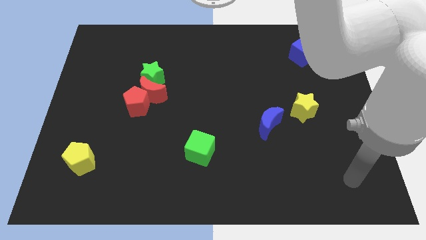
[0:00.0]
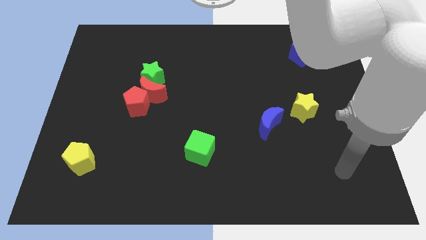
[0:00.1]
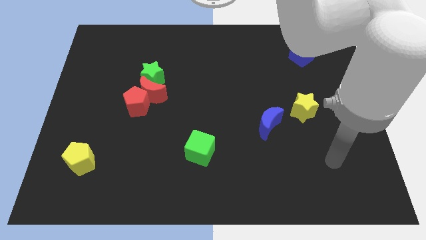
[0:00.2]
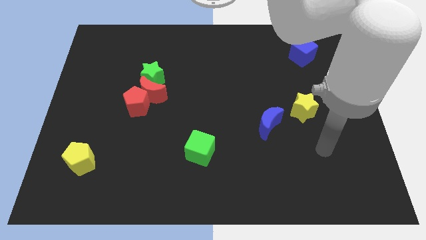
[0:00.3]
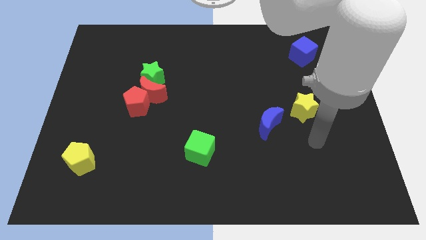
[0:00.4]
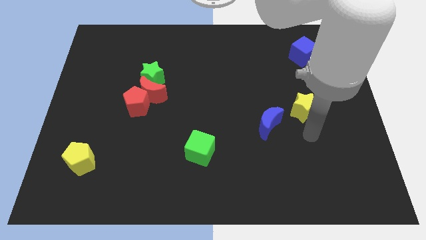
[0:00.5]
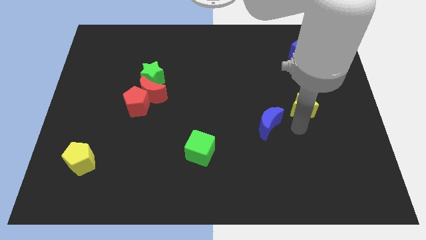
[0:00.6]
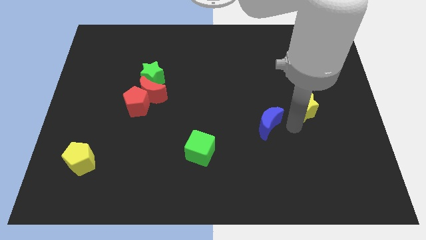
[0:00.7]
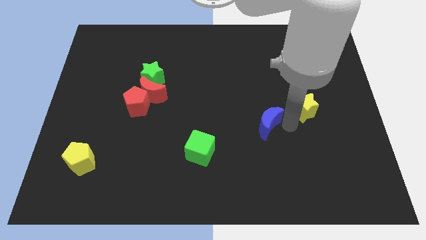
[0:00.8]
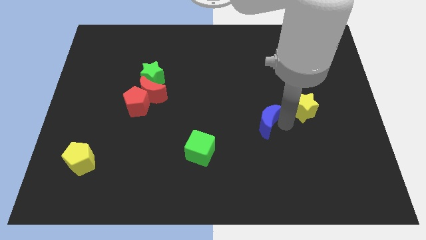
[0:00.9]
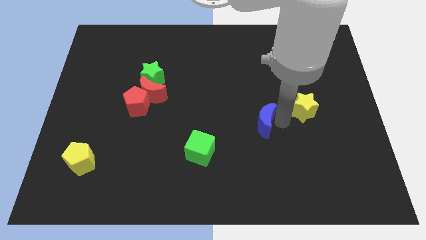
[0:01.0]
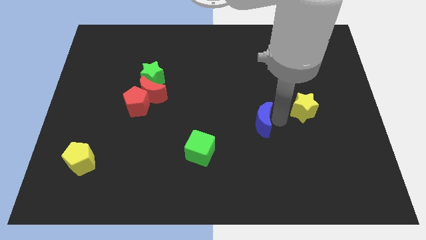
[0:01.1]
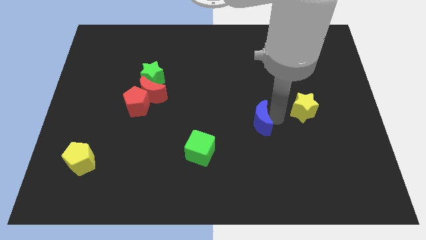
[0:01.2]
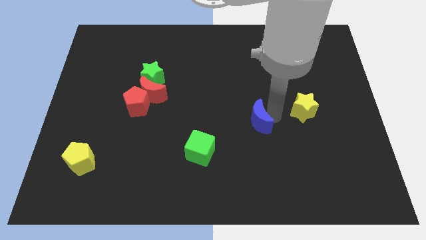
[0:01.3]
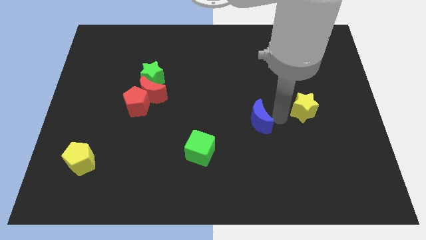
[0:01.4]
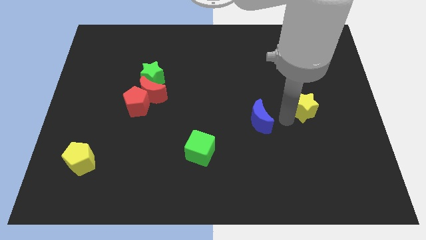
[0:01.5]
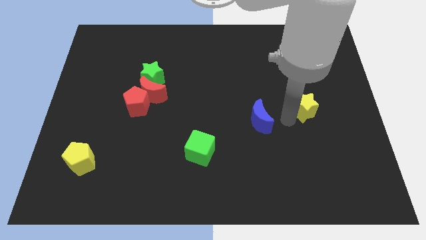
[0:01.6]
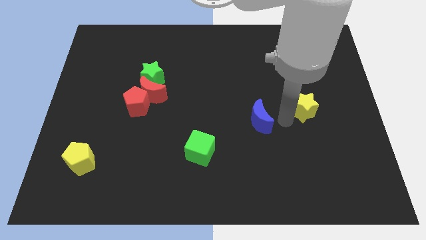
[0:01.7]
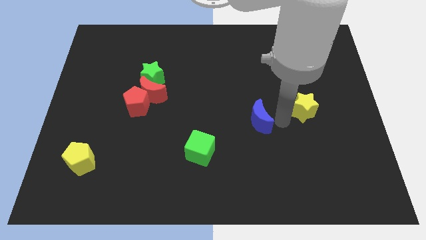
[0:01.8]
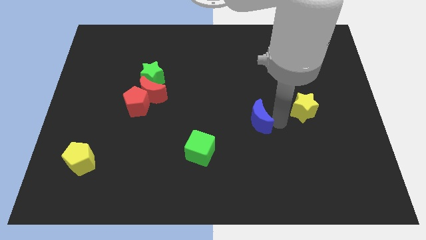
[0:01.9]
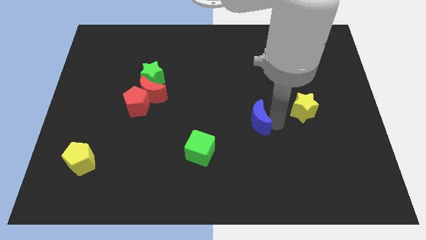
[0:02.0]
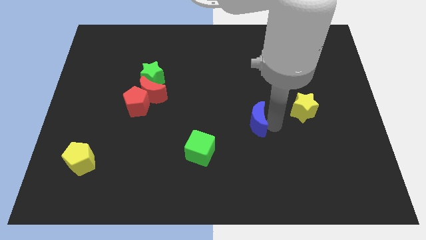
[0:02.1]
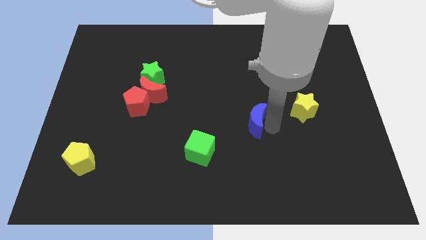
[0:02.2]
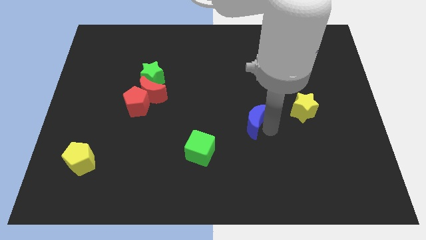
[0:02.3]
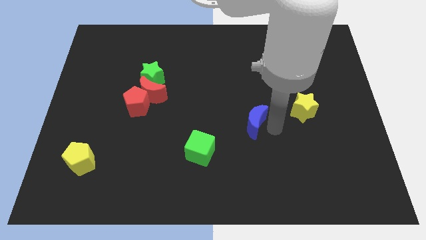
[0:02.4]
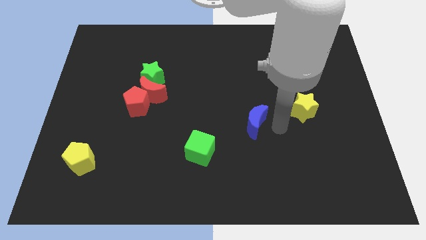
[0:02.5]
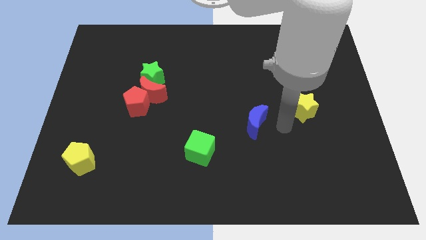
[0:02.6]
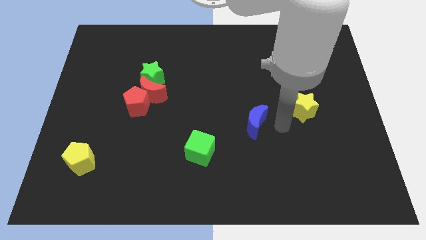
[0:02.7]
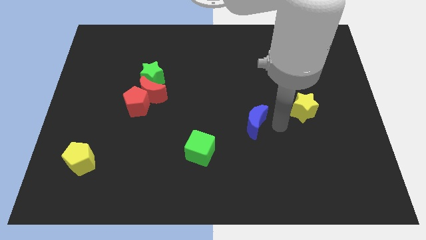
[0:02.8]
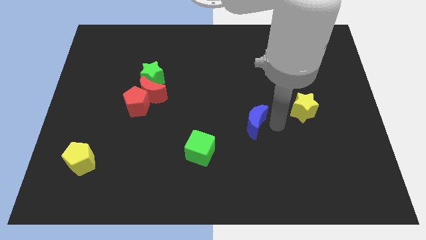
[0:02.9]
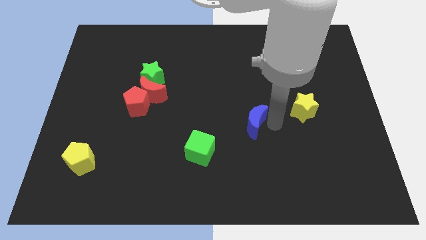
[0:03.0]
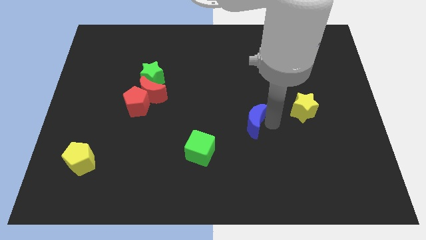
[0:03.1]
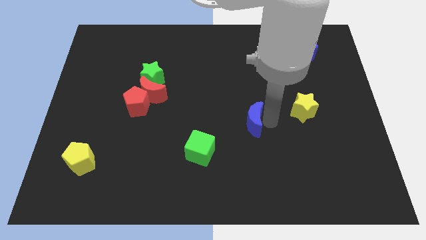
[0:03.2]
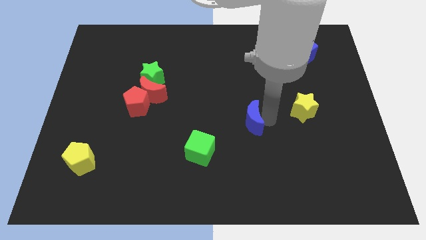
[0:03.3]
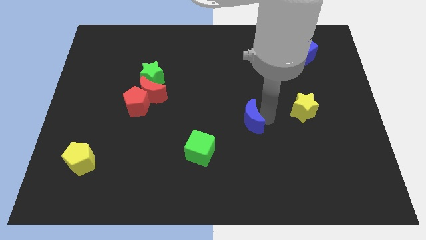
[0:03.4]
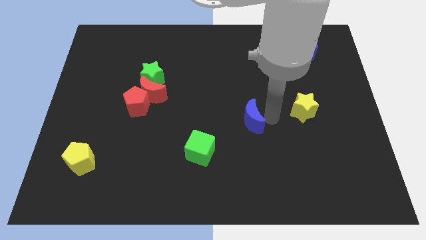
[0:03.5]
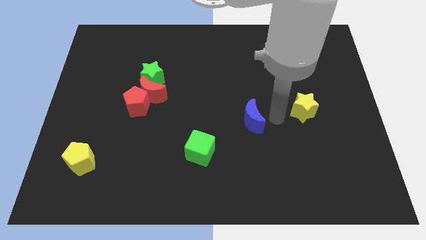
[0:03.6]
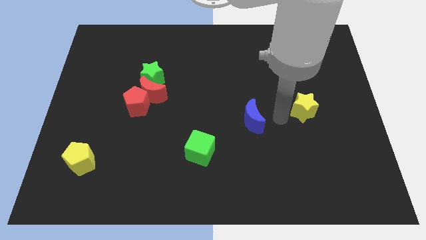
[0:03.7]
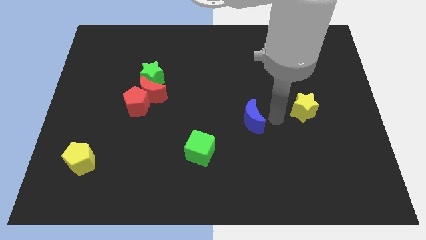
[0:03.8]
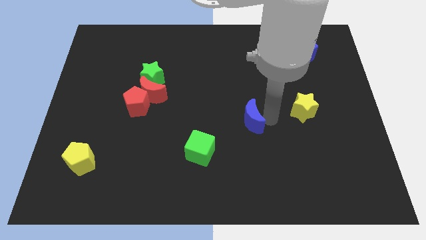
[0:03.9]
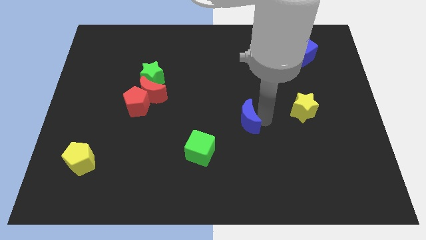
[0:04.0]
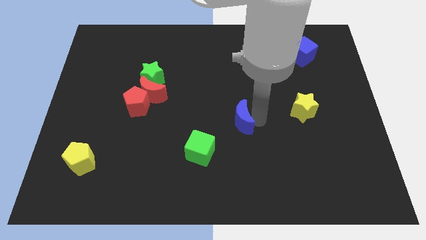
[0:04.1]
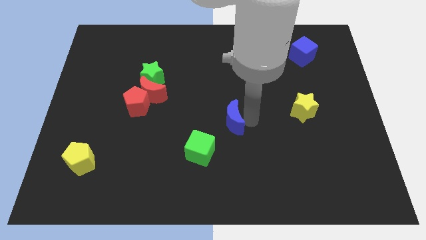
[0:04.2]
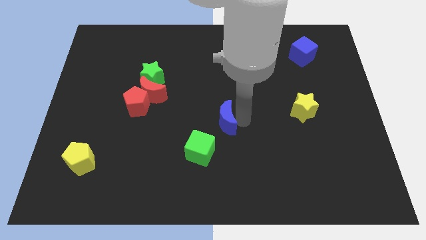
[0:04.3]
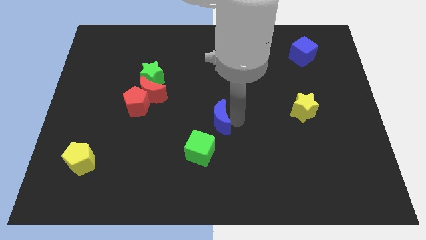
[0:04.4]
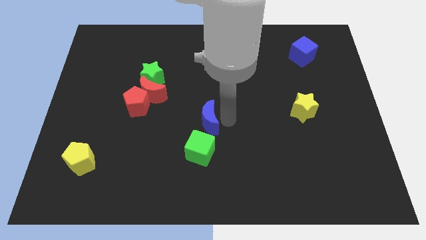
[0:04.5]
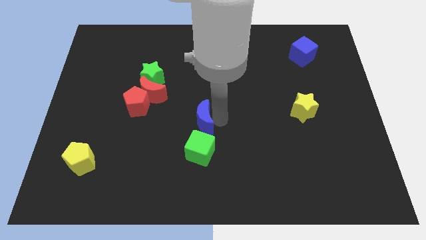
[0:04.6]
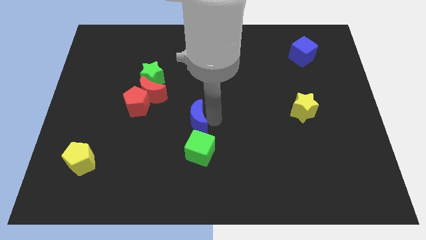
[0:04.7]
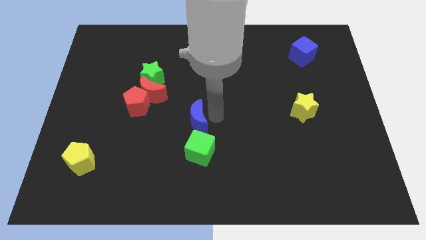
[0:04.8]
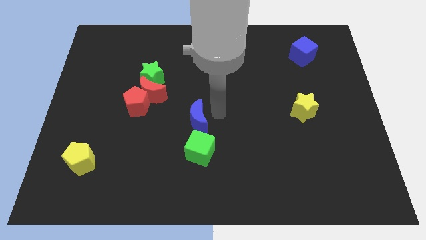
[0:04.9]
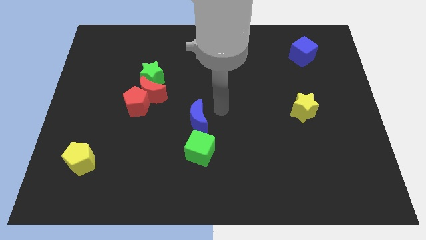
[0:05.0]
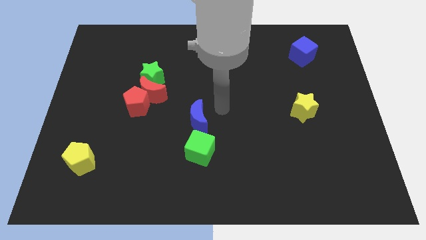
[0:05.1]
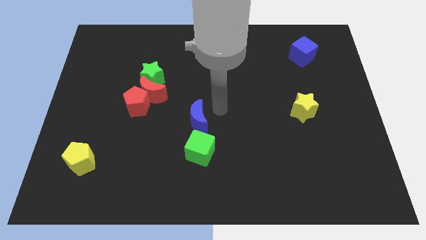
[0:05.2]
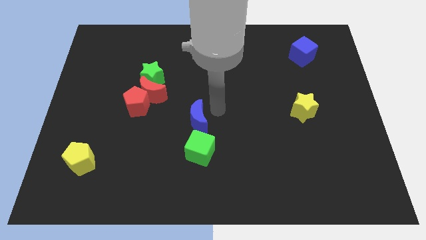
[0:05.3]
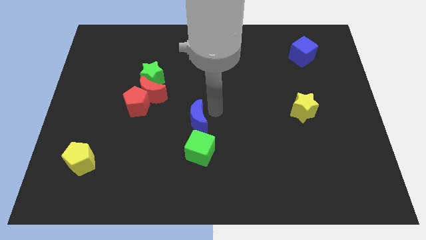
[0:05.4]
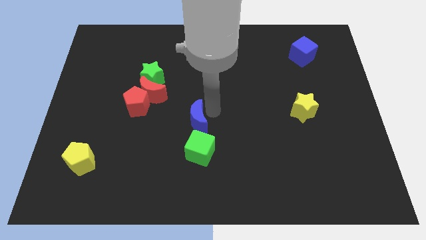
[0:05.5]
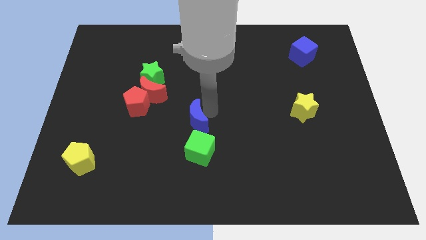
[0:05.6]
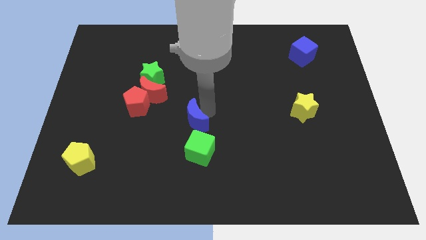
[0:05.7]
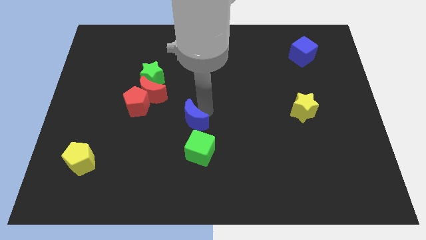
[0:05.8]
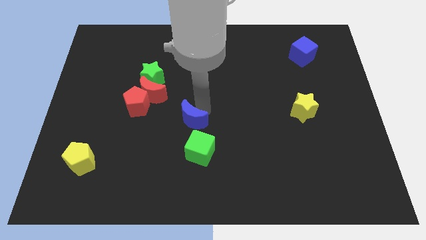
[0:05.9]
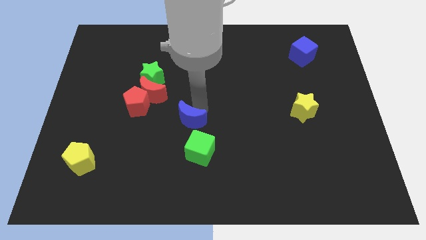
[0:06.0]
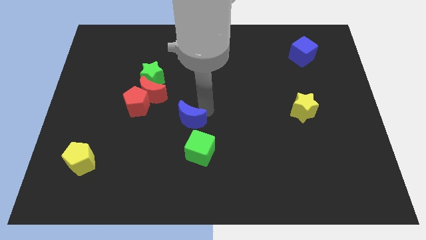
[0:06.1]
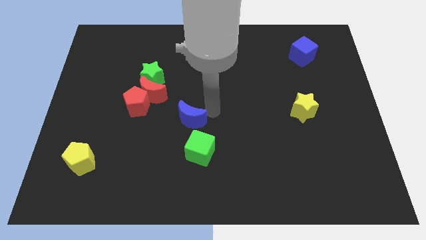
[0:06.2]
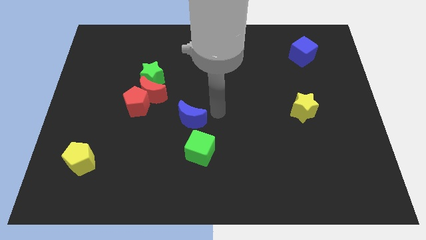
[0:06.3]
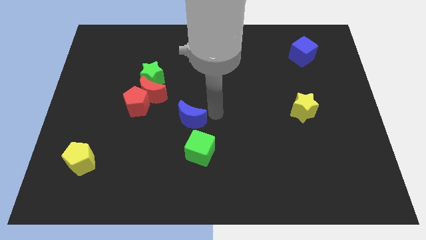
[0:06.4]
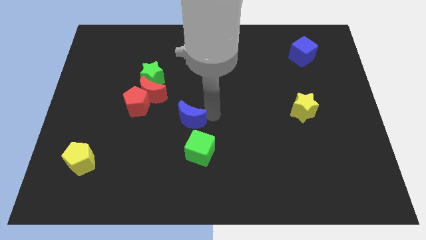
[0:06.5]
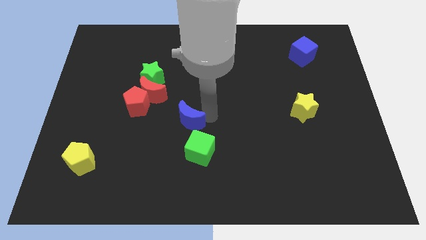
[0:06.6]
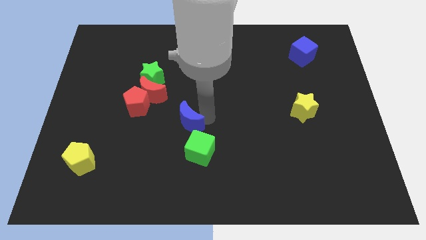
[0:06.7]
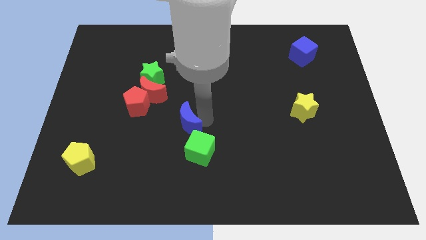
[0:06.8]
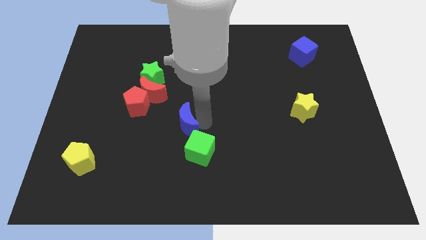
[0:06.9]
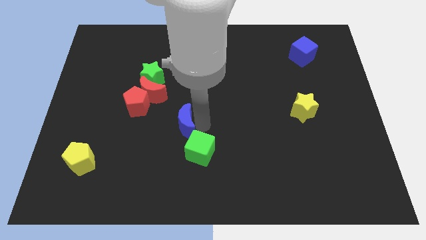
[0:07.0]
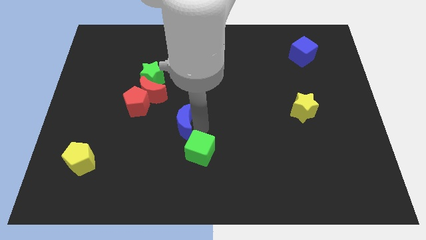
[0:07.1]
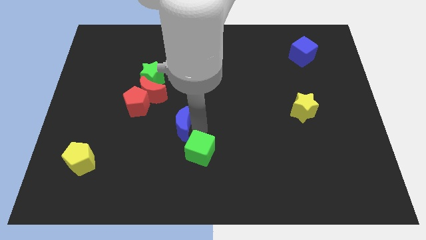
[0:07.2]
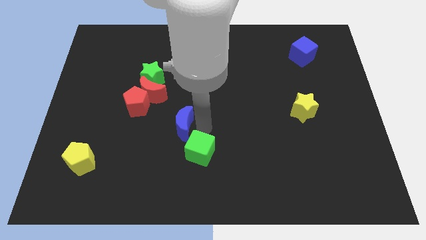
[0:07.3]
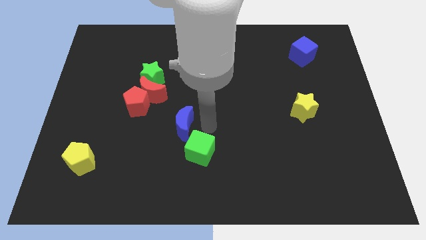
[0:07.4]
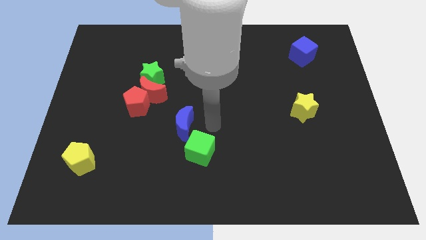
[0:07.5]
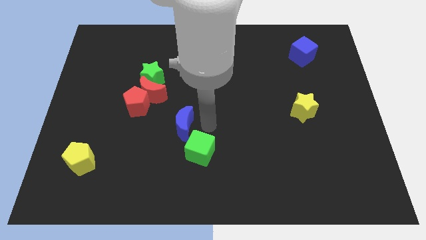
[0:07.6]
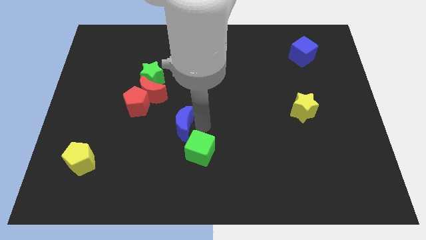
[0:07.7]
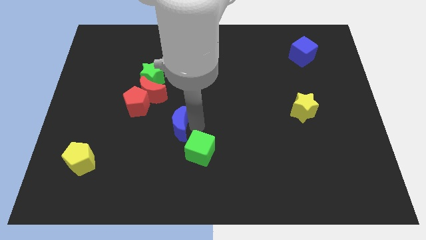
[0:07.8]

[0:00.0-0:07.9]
slide the blue moon to the left
